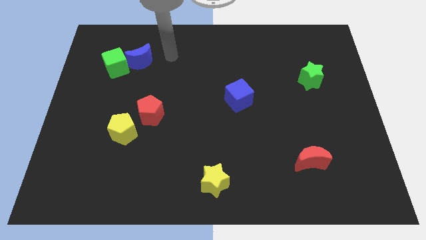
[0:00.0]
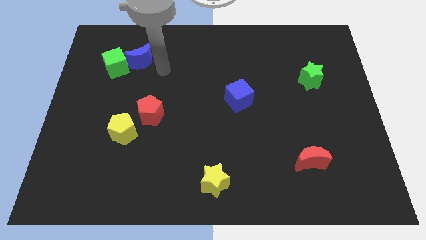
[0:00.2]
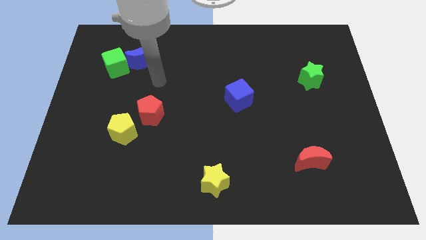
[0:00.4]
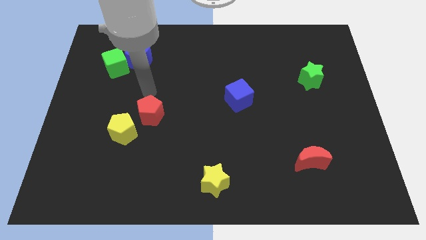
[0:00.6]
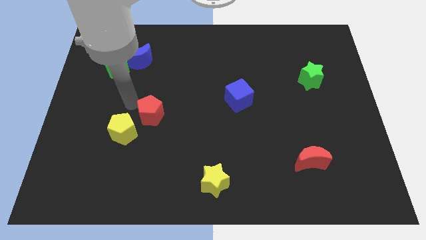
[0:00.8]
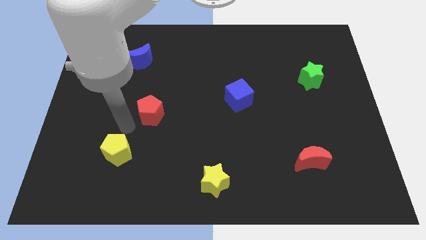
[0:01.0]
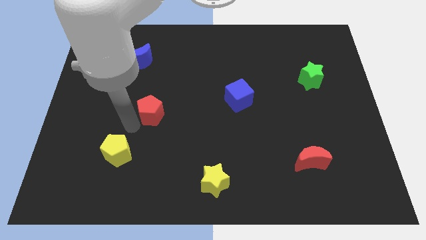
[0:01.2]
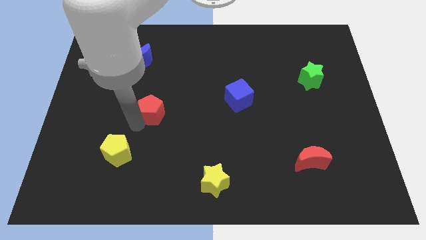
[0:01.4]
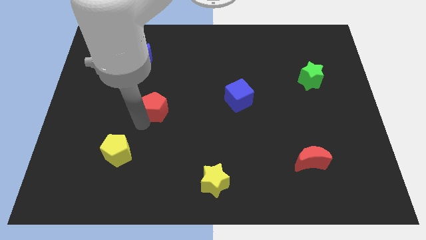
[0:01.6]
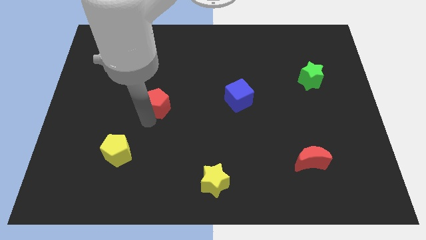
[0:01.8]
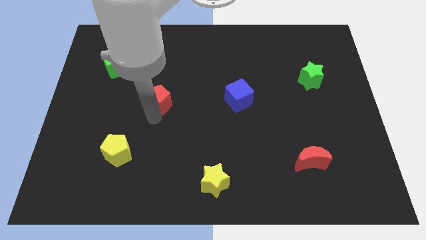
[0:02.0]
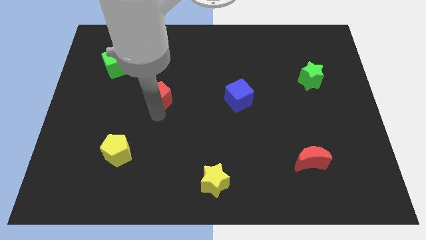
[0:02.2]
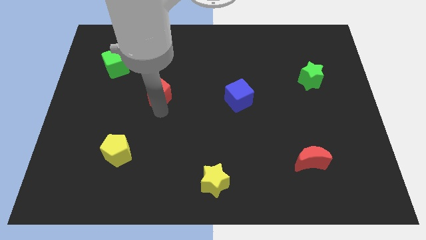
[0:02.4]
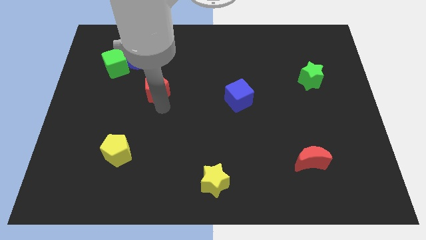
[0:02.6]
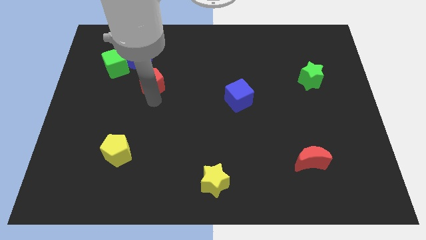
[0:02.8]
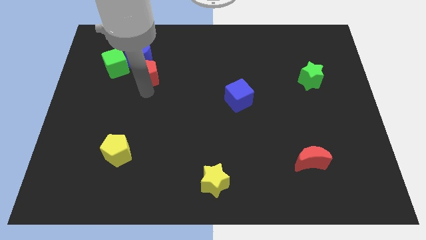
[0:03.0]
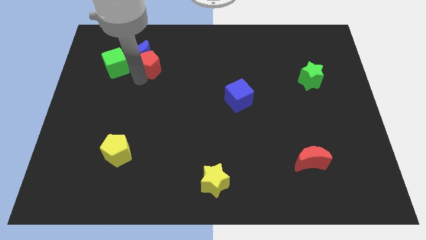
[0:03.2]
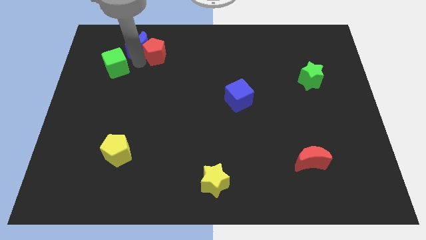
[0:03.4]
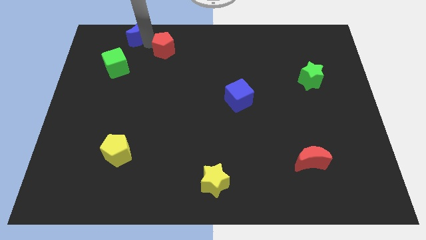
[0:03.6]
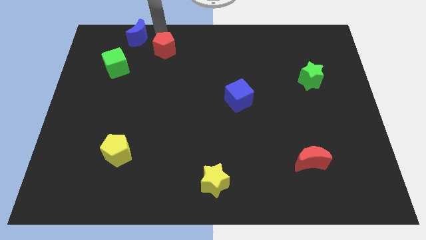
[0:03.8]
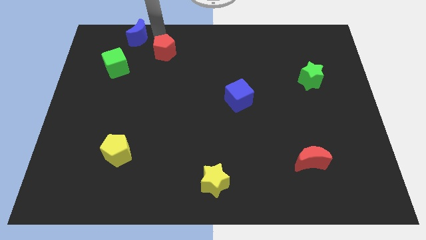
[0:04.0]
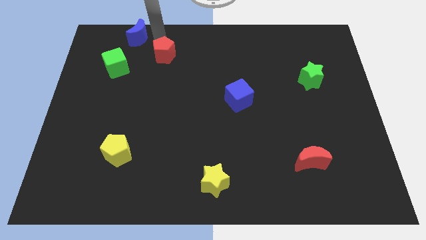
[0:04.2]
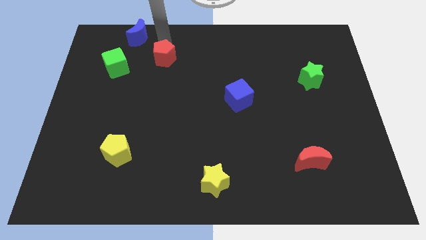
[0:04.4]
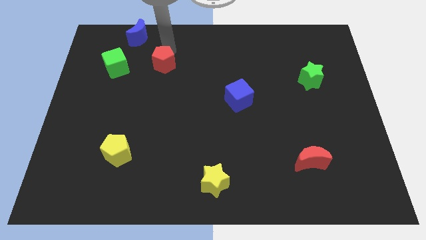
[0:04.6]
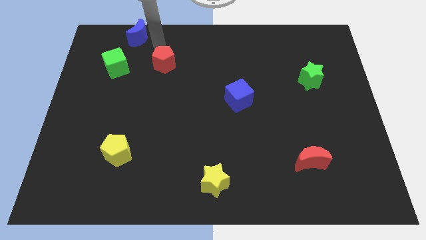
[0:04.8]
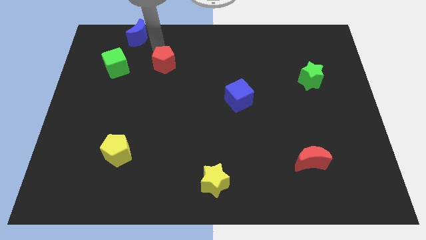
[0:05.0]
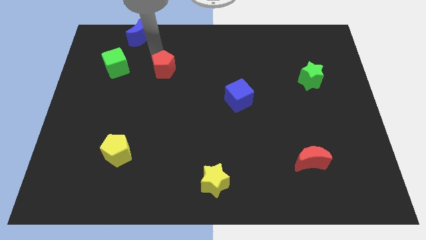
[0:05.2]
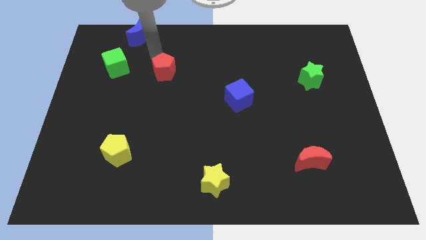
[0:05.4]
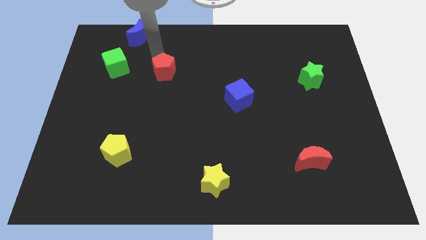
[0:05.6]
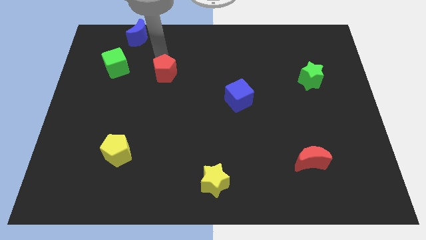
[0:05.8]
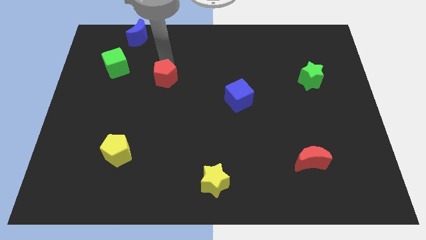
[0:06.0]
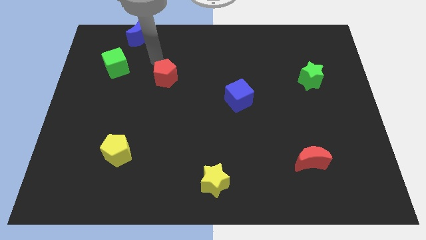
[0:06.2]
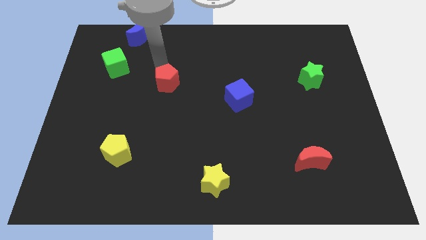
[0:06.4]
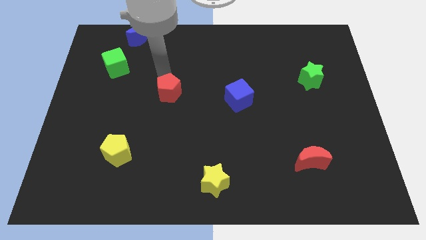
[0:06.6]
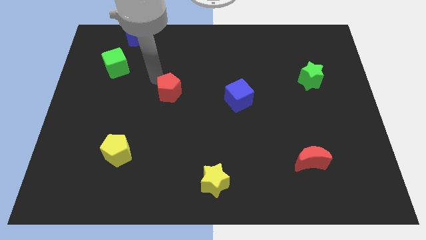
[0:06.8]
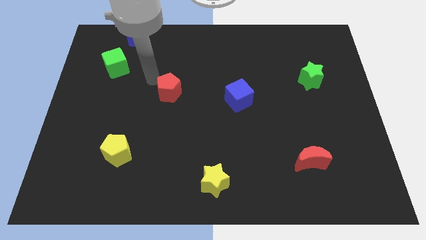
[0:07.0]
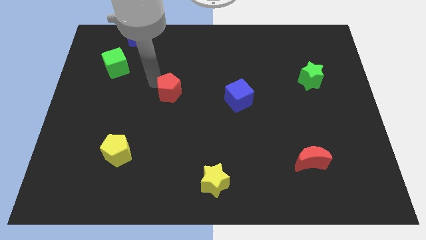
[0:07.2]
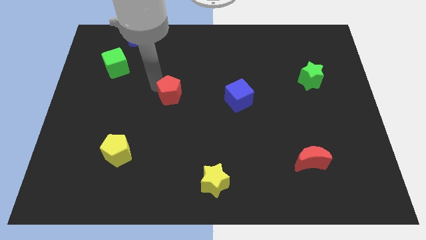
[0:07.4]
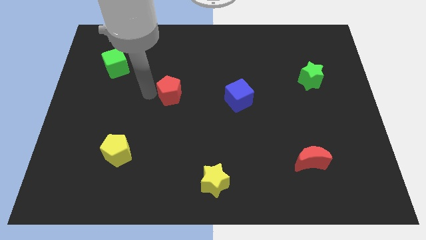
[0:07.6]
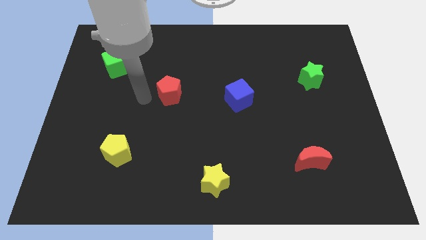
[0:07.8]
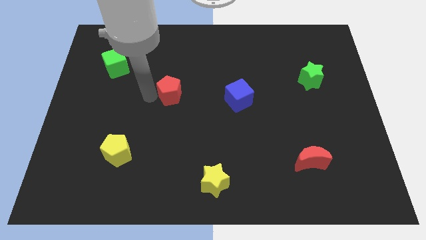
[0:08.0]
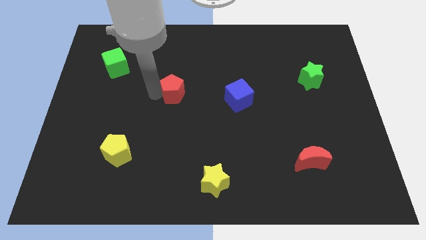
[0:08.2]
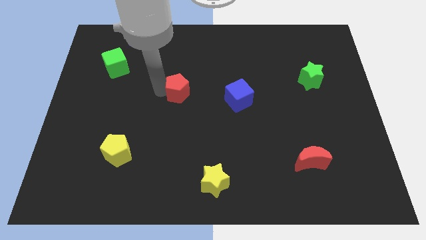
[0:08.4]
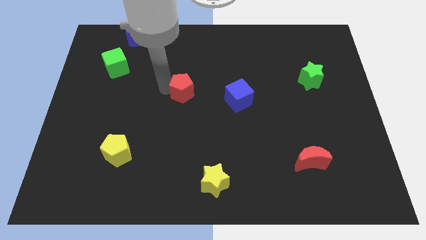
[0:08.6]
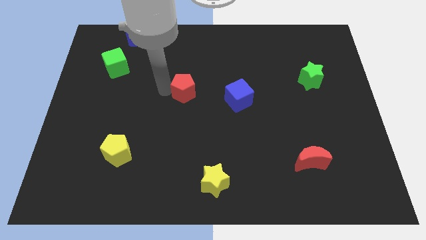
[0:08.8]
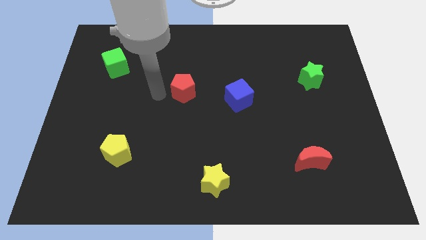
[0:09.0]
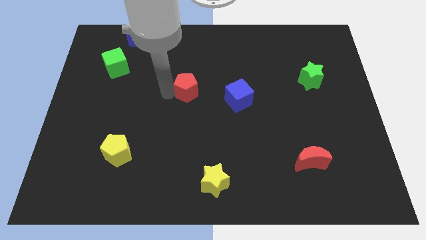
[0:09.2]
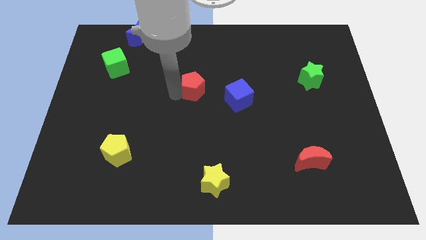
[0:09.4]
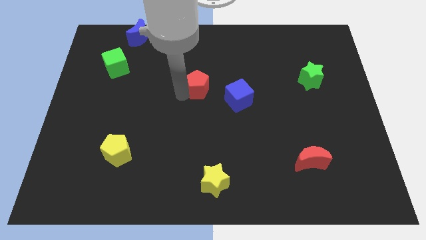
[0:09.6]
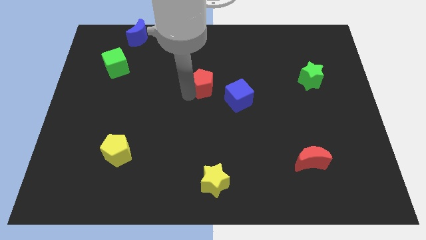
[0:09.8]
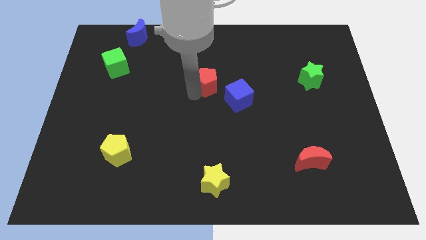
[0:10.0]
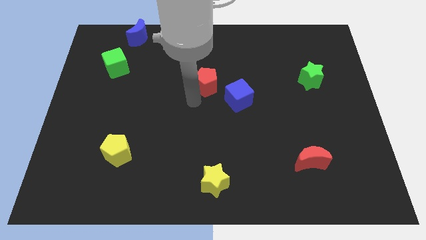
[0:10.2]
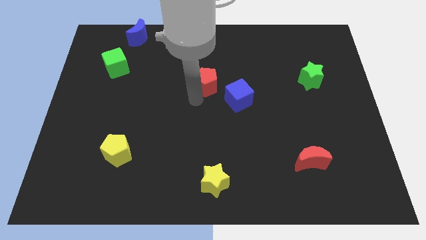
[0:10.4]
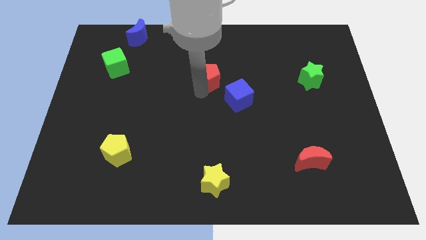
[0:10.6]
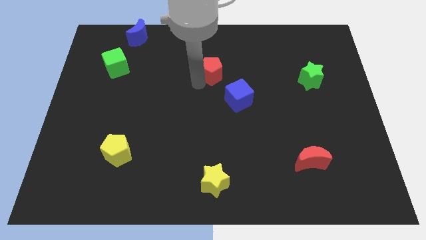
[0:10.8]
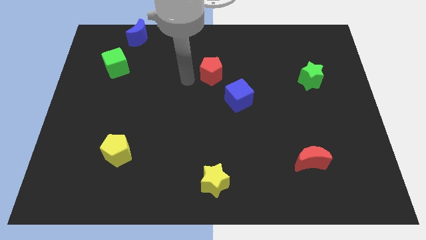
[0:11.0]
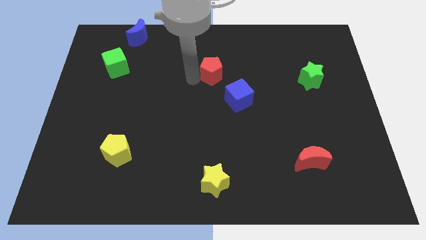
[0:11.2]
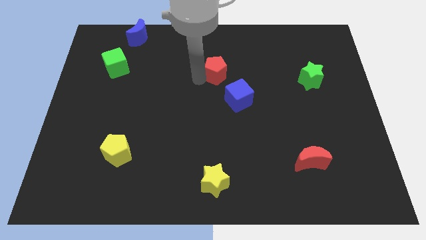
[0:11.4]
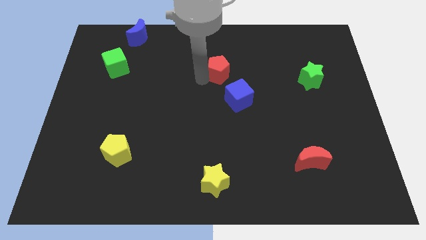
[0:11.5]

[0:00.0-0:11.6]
put the red pentagon to the top side of the blue cube
